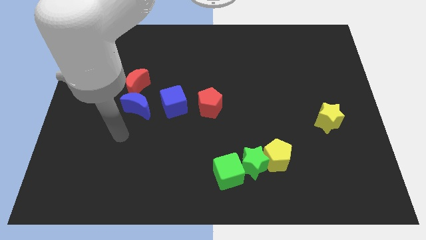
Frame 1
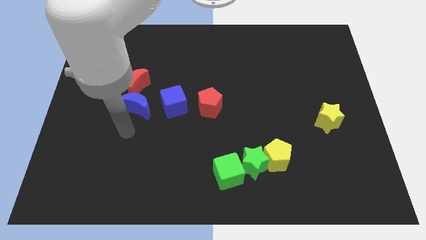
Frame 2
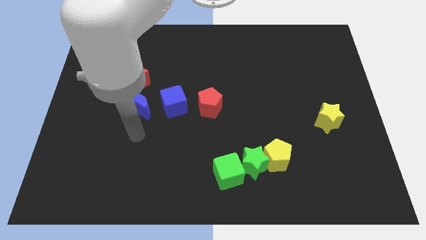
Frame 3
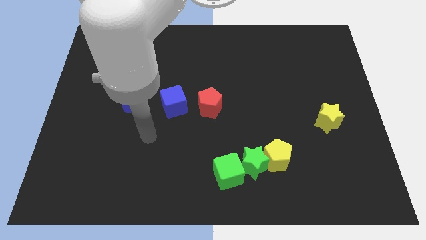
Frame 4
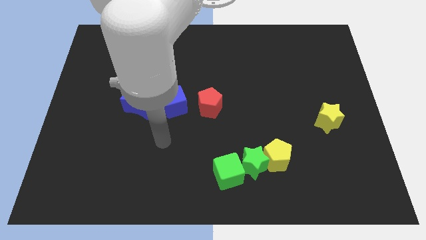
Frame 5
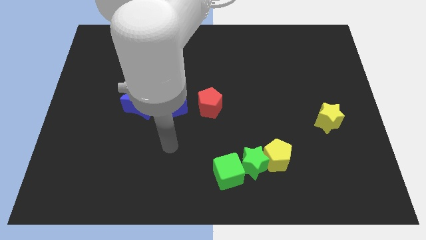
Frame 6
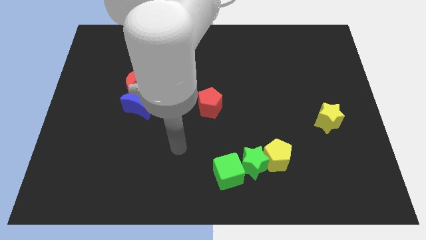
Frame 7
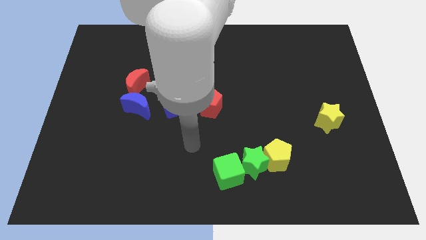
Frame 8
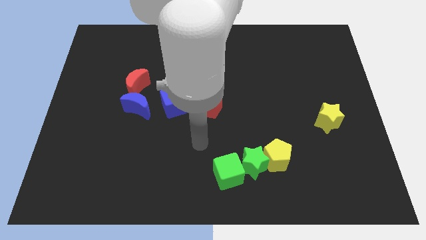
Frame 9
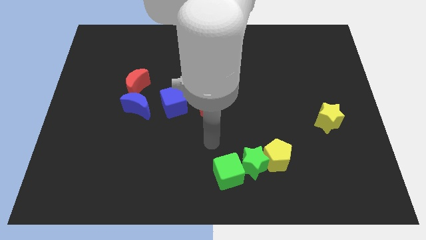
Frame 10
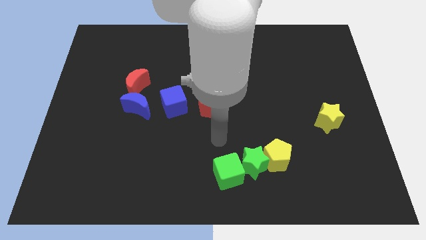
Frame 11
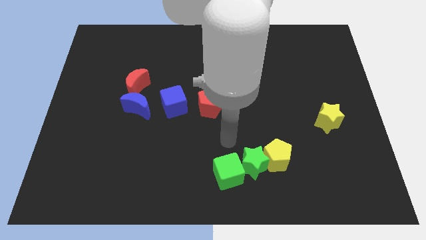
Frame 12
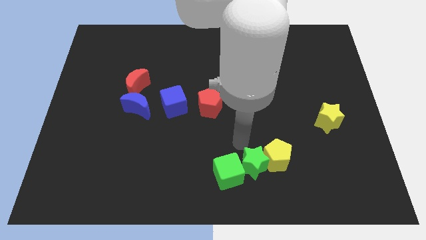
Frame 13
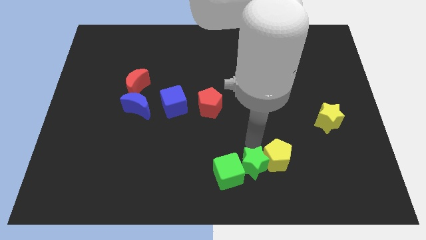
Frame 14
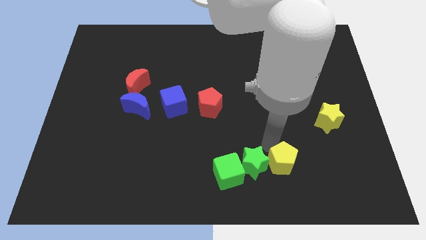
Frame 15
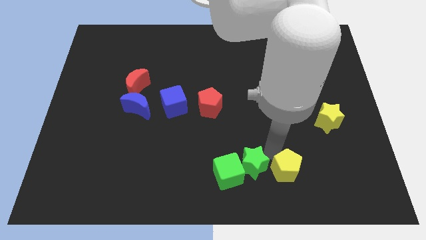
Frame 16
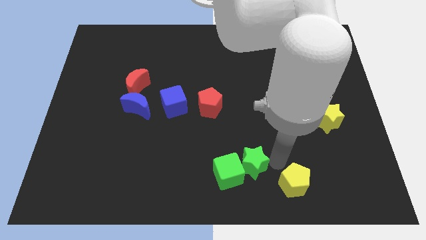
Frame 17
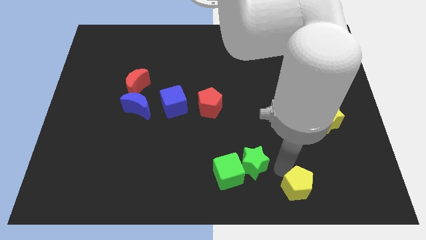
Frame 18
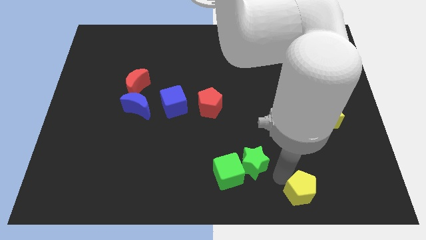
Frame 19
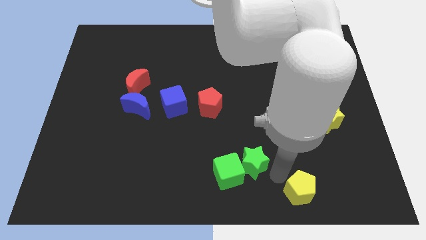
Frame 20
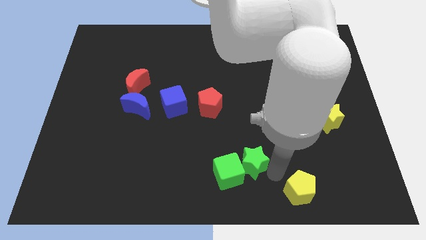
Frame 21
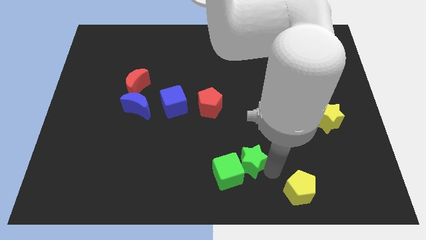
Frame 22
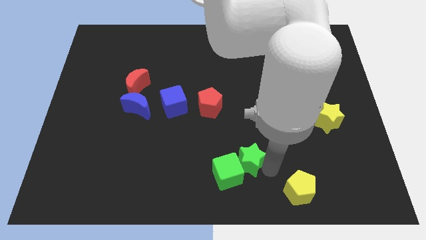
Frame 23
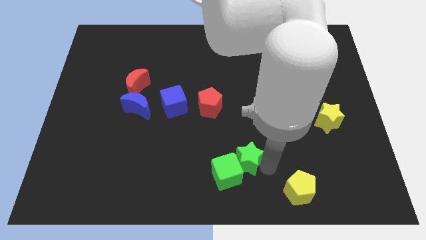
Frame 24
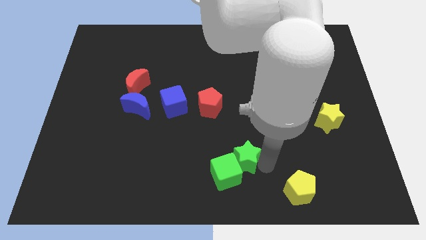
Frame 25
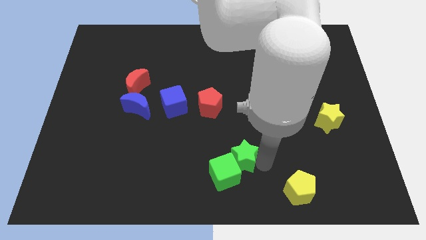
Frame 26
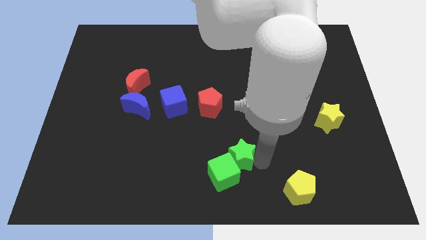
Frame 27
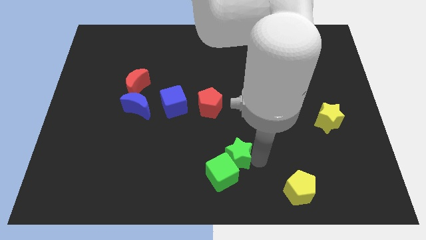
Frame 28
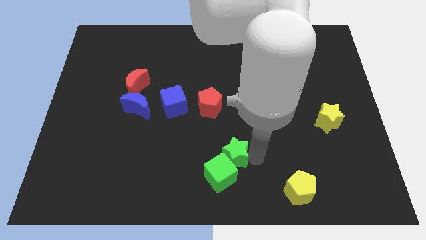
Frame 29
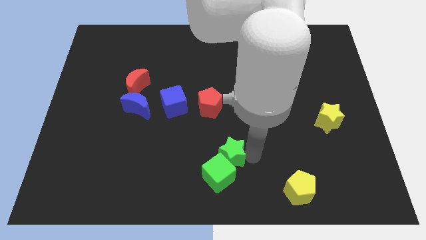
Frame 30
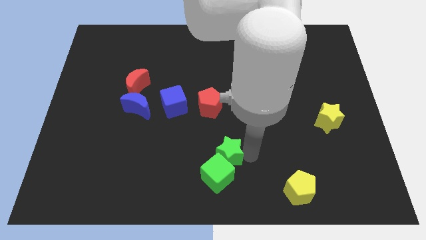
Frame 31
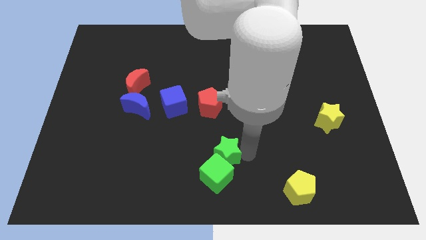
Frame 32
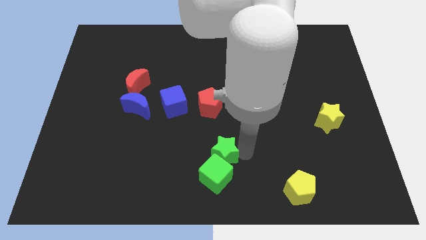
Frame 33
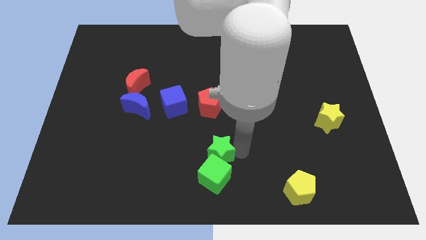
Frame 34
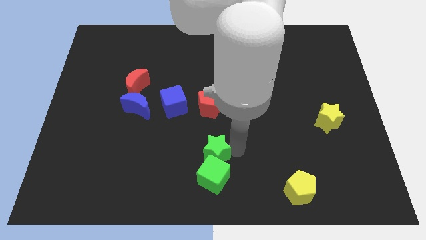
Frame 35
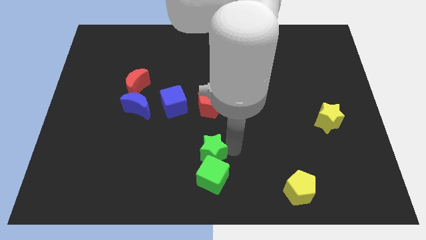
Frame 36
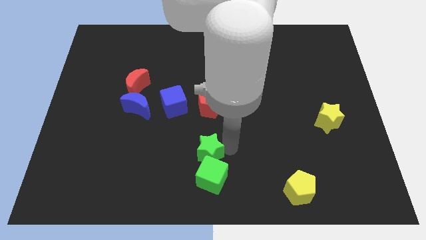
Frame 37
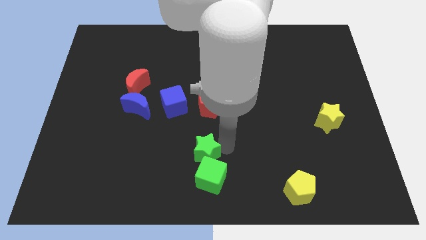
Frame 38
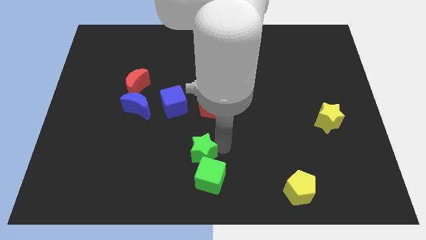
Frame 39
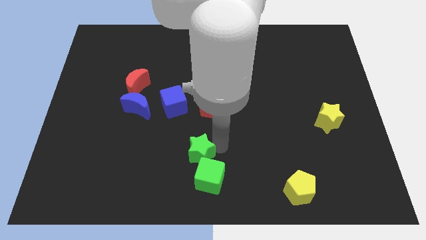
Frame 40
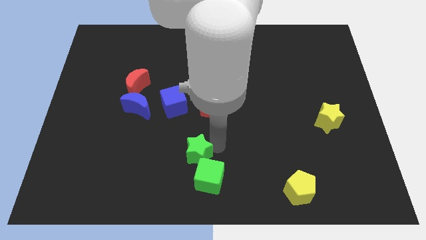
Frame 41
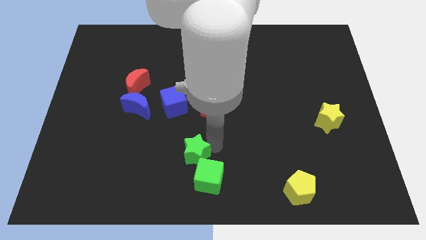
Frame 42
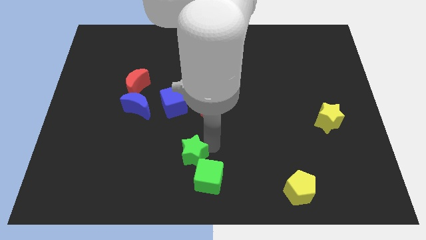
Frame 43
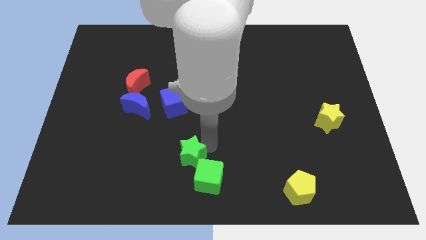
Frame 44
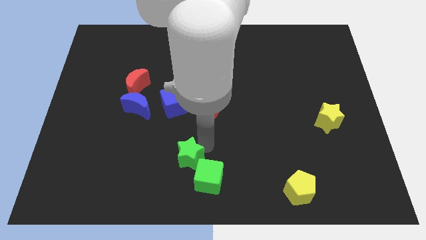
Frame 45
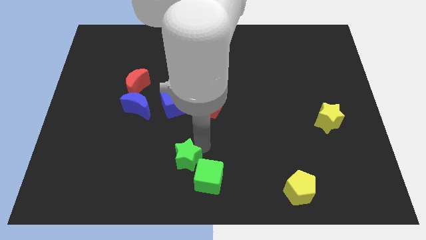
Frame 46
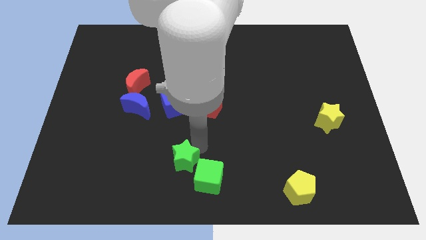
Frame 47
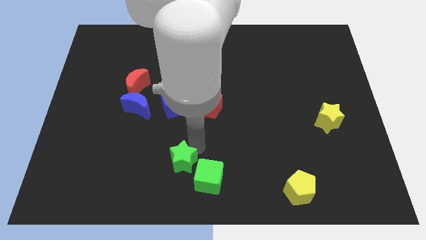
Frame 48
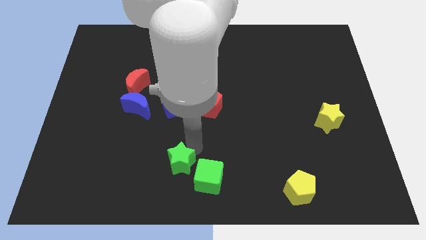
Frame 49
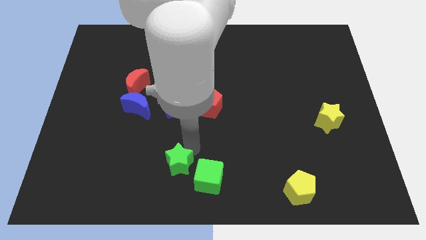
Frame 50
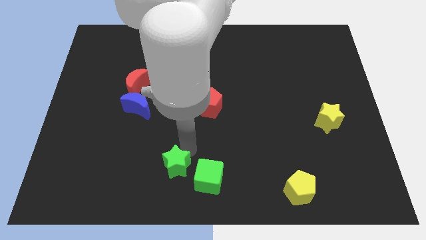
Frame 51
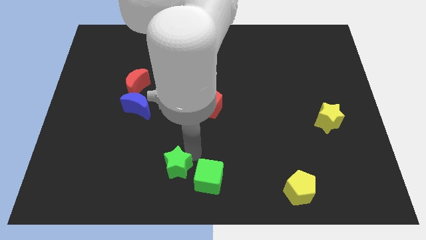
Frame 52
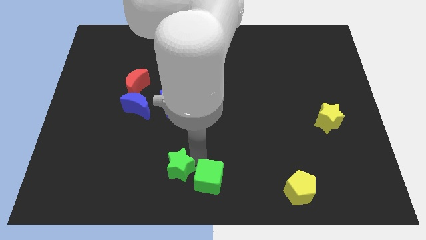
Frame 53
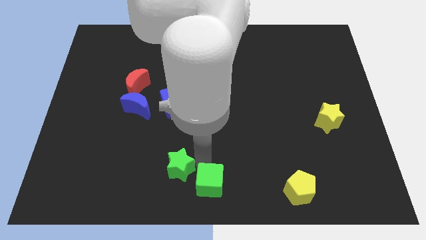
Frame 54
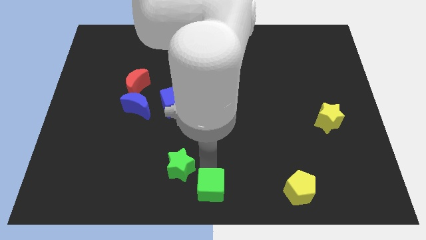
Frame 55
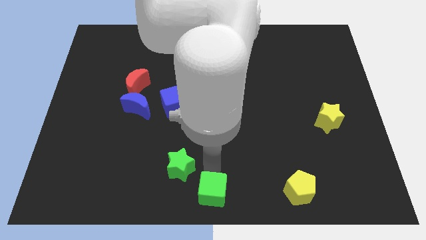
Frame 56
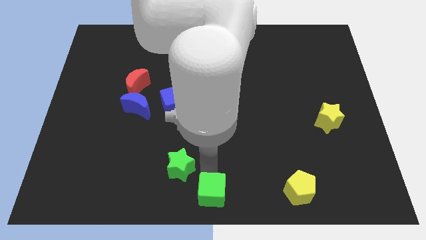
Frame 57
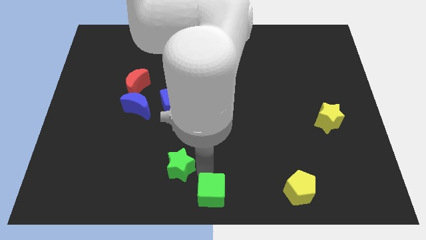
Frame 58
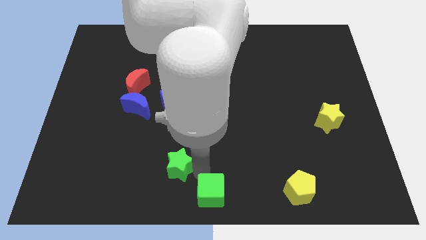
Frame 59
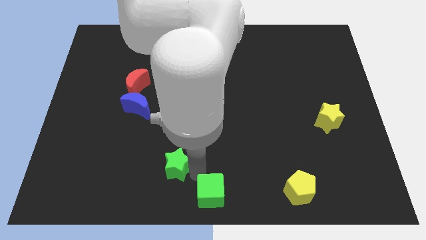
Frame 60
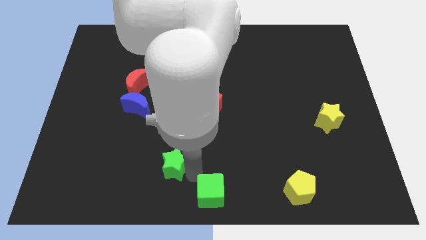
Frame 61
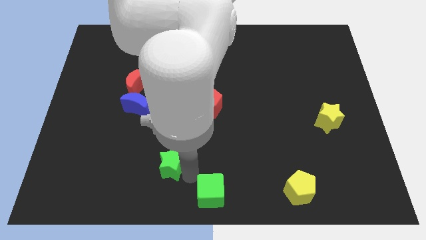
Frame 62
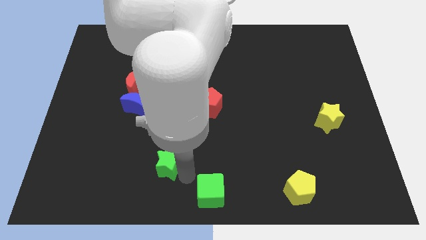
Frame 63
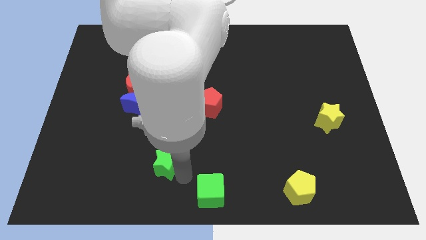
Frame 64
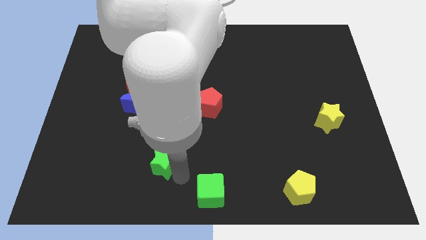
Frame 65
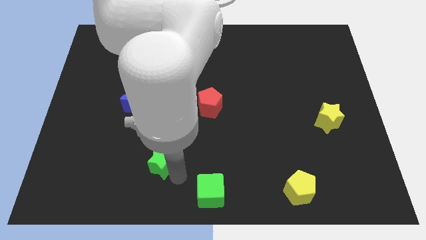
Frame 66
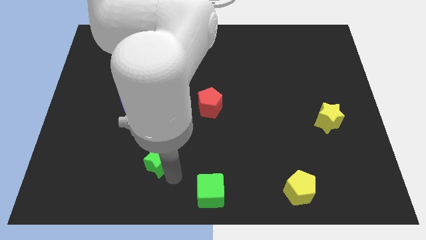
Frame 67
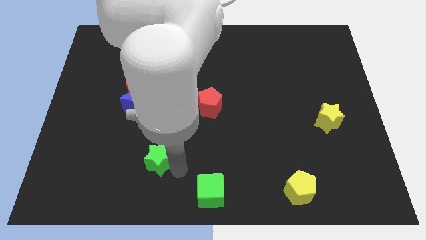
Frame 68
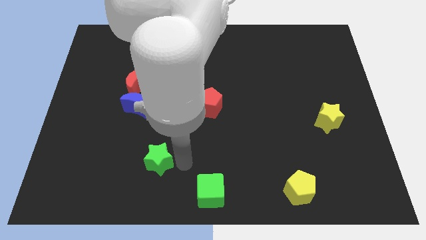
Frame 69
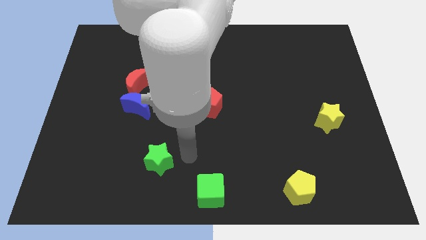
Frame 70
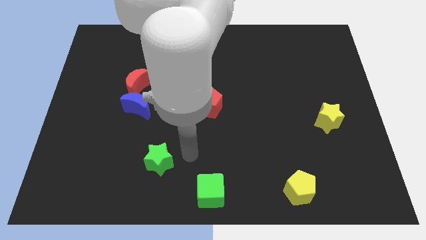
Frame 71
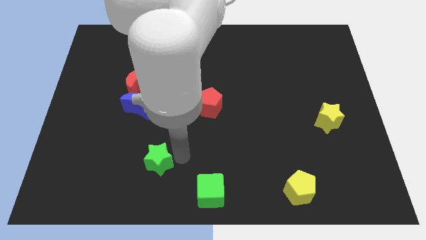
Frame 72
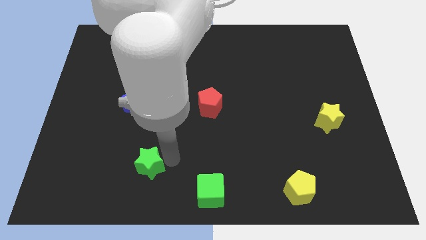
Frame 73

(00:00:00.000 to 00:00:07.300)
push the green star to the left

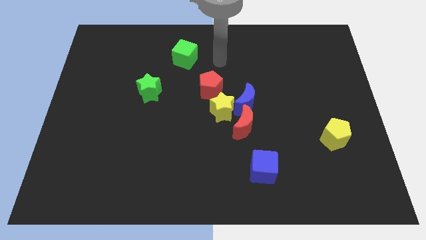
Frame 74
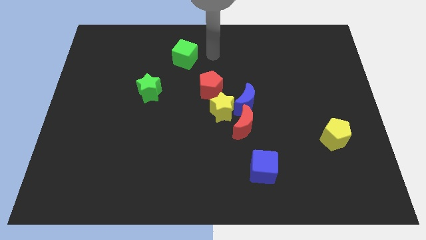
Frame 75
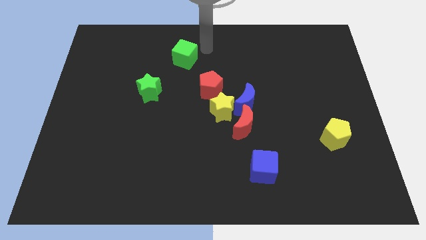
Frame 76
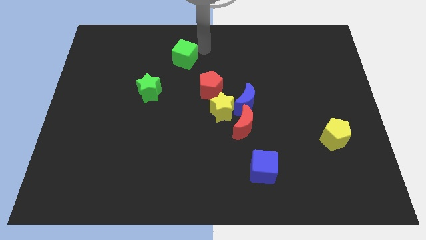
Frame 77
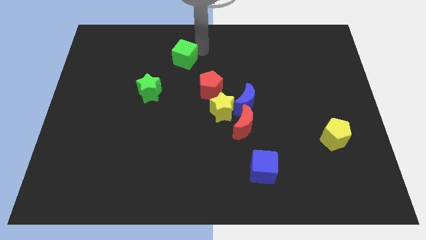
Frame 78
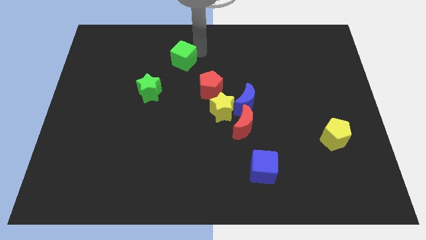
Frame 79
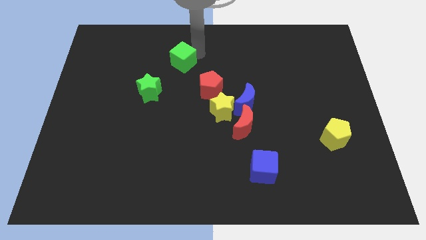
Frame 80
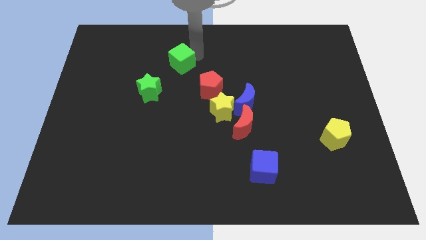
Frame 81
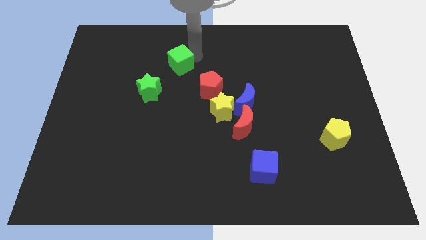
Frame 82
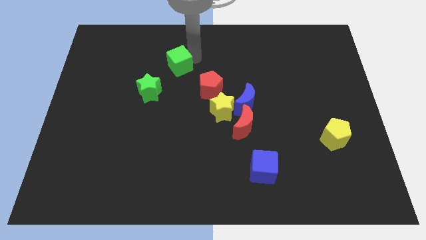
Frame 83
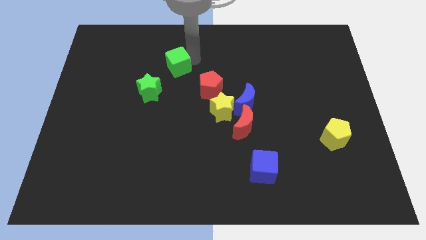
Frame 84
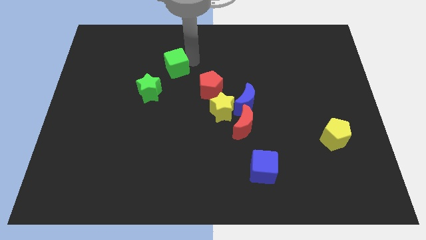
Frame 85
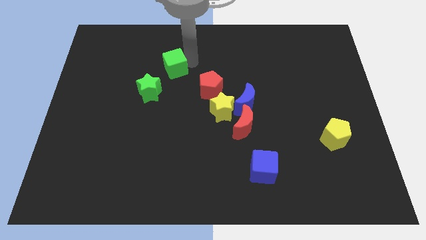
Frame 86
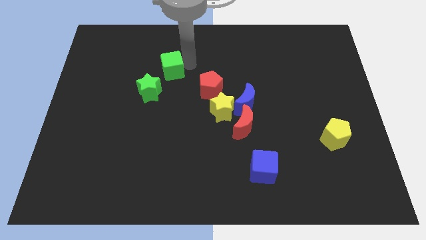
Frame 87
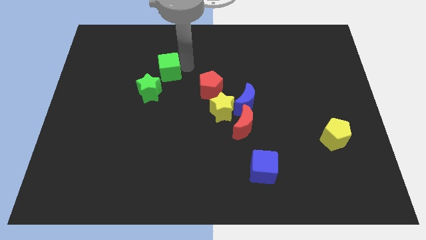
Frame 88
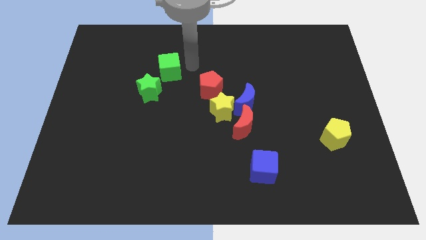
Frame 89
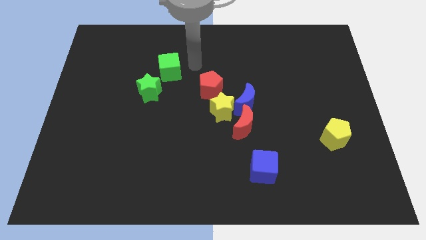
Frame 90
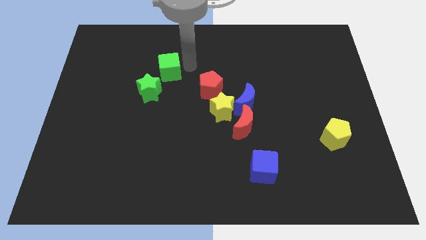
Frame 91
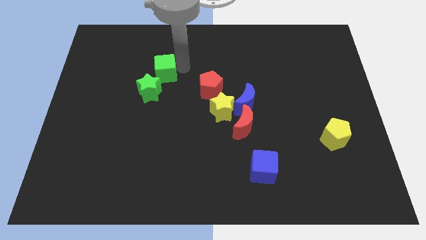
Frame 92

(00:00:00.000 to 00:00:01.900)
slightly push the green cube diagonally downwards and left
